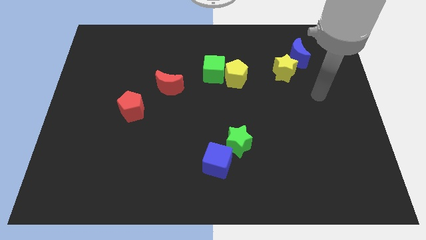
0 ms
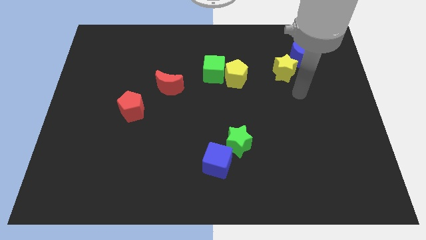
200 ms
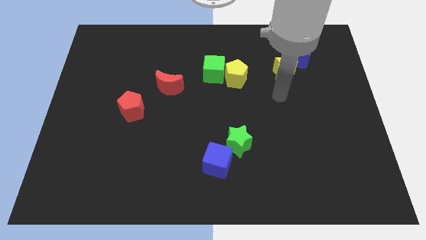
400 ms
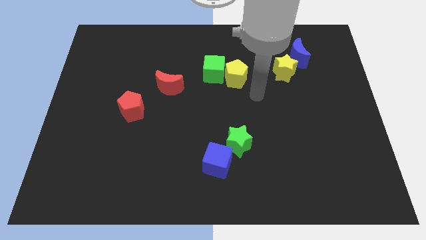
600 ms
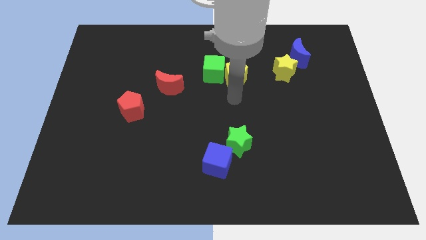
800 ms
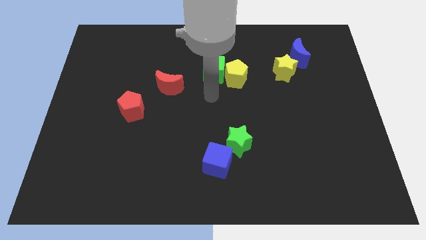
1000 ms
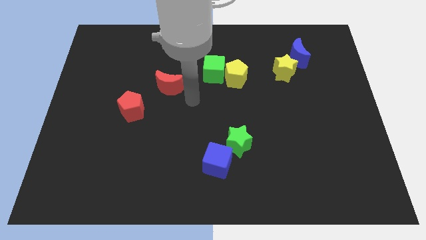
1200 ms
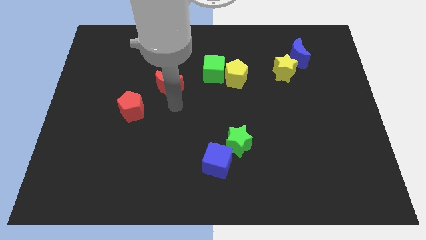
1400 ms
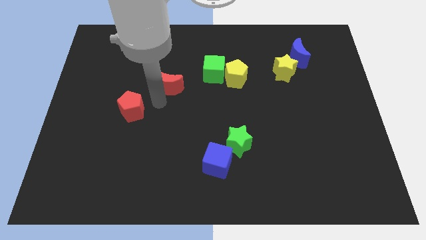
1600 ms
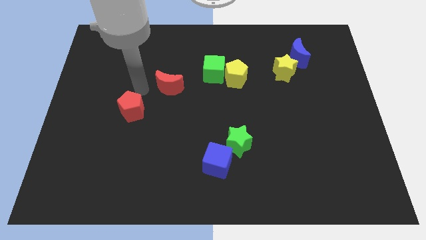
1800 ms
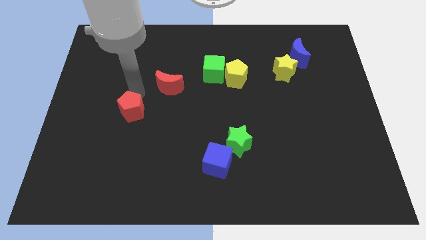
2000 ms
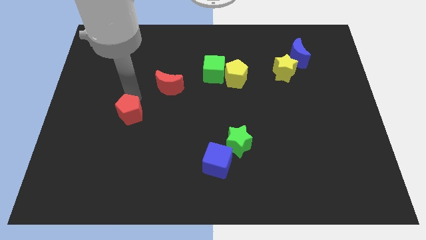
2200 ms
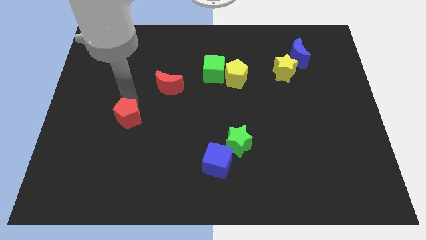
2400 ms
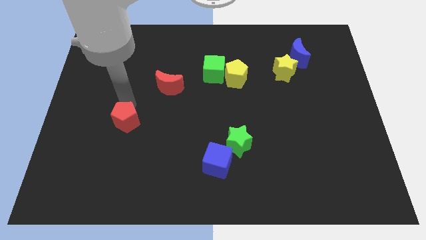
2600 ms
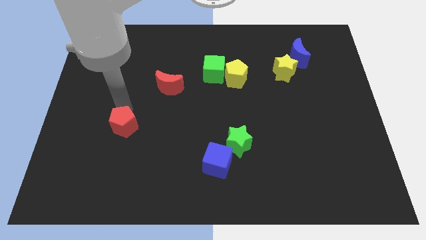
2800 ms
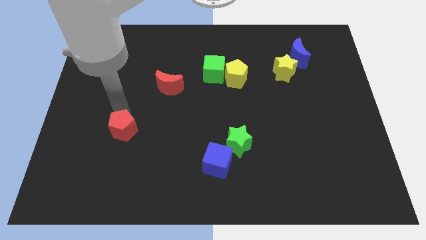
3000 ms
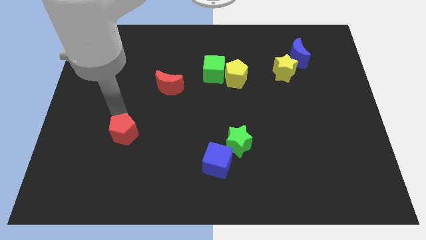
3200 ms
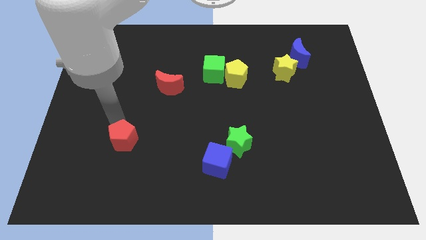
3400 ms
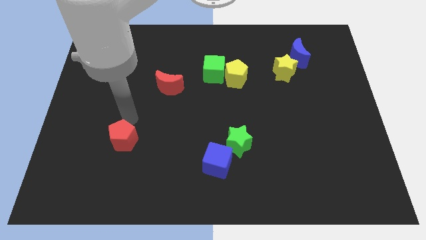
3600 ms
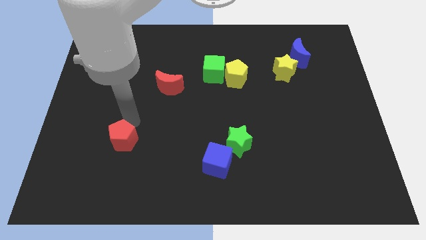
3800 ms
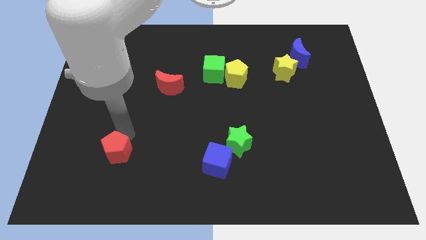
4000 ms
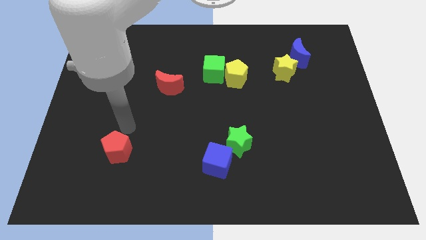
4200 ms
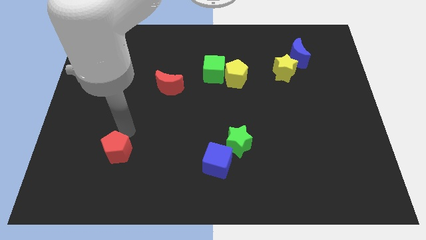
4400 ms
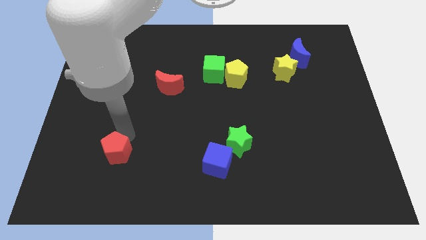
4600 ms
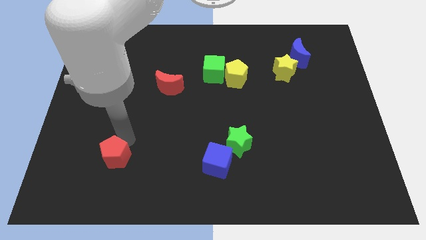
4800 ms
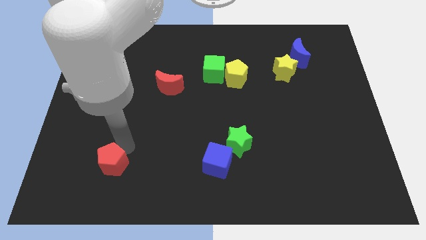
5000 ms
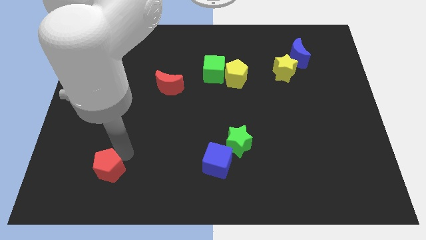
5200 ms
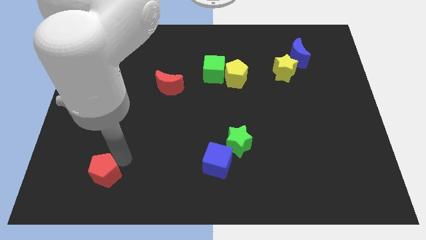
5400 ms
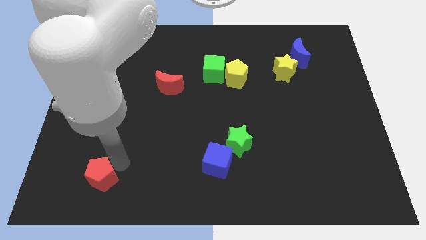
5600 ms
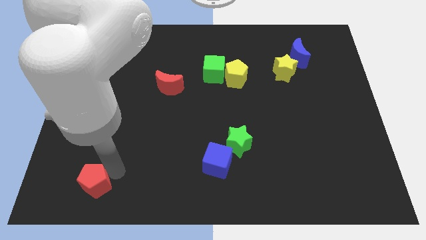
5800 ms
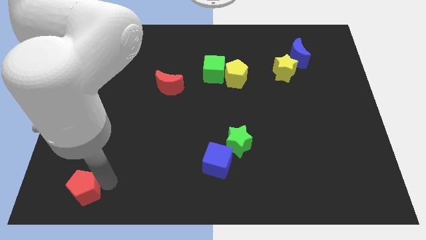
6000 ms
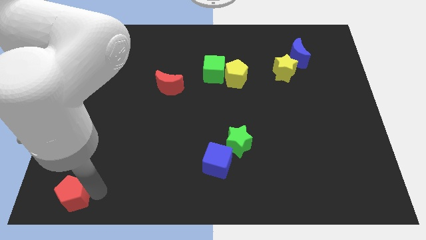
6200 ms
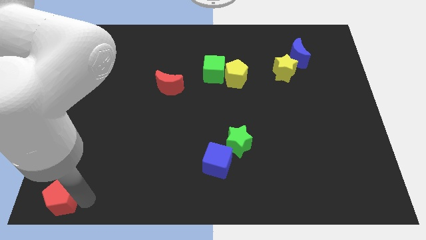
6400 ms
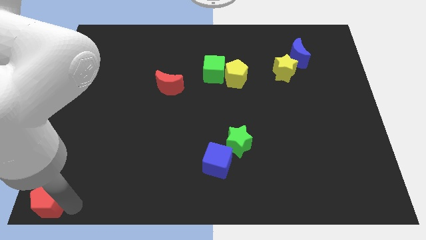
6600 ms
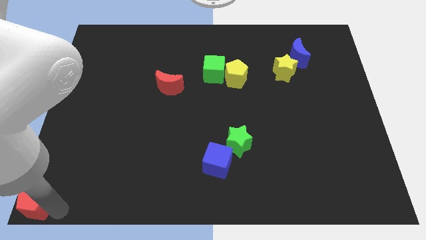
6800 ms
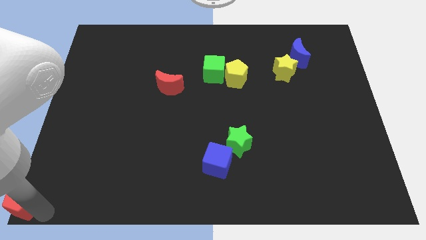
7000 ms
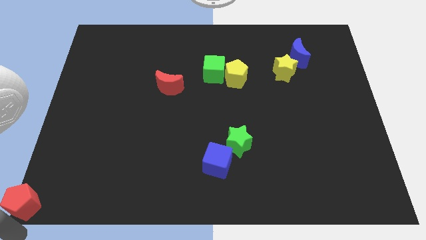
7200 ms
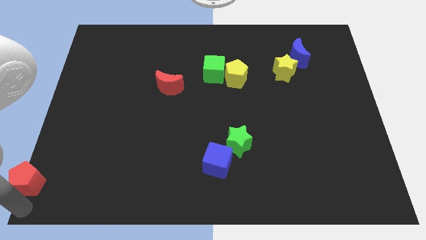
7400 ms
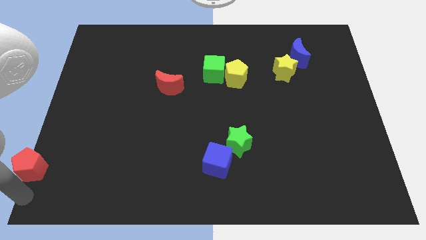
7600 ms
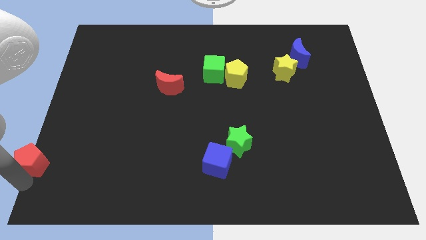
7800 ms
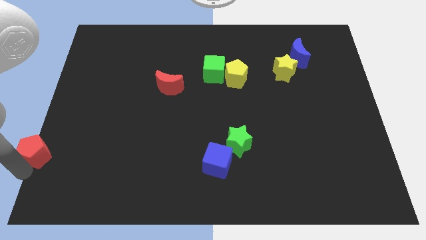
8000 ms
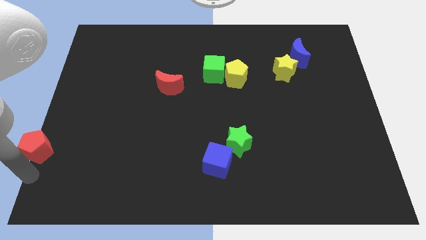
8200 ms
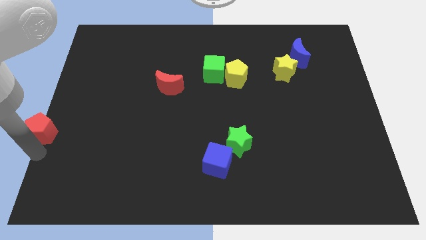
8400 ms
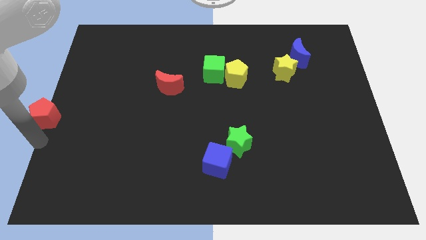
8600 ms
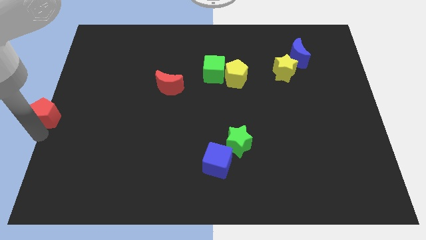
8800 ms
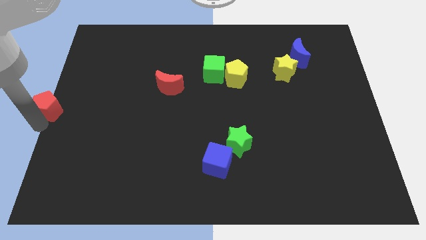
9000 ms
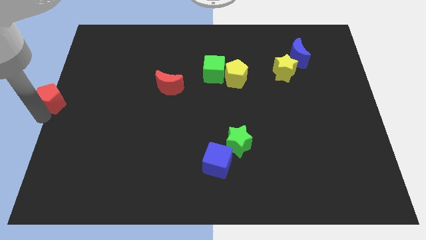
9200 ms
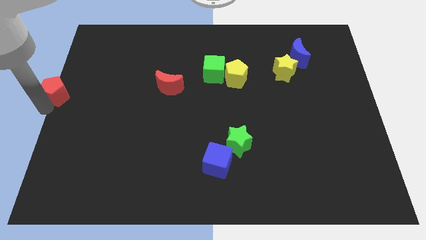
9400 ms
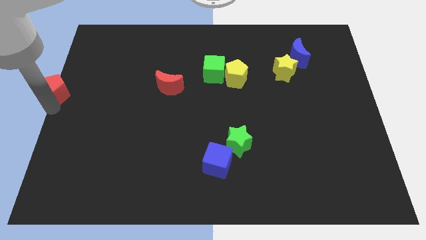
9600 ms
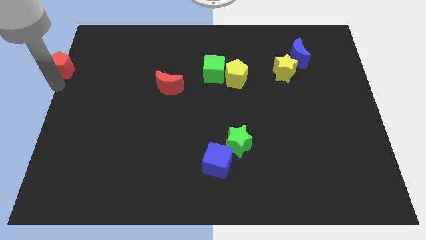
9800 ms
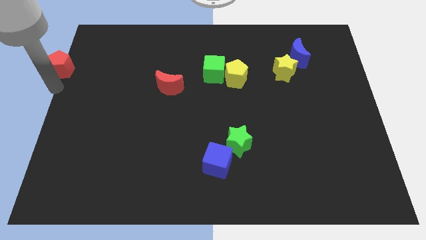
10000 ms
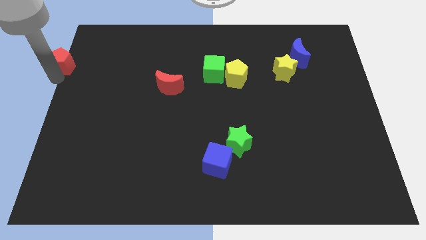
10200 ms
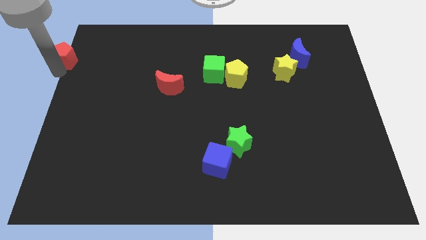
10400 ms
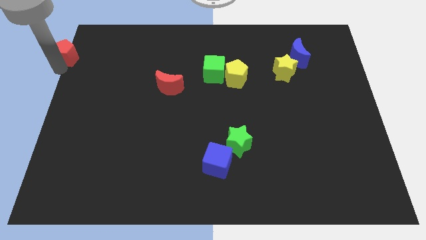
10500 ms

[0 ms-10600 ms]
push the red pentagon to the upper left corner

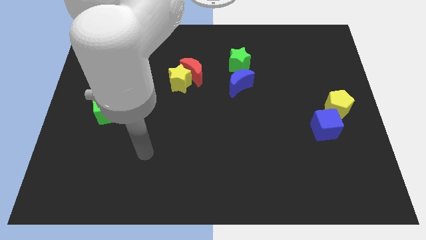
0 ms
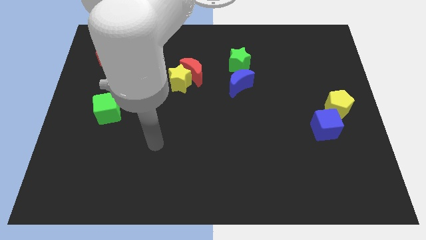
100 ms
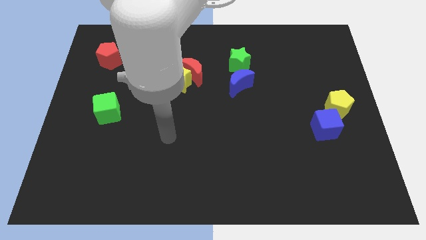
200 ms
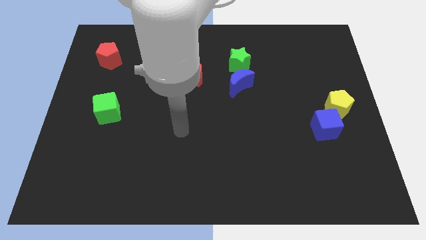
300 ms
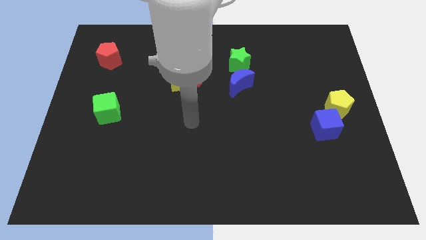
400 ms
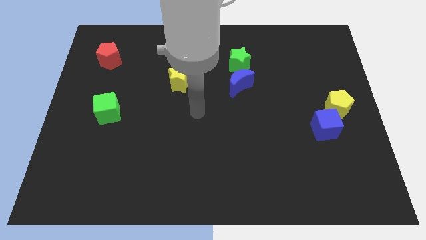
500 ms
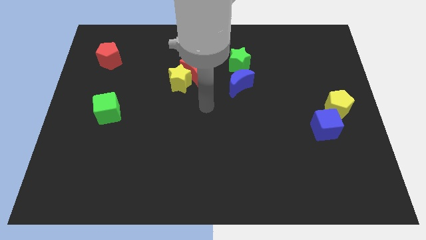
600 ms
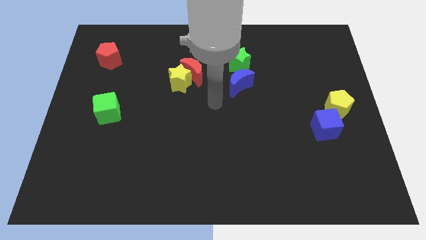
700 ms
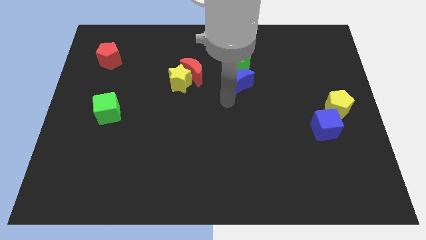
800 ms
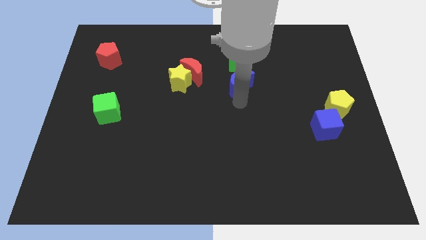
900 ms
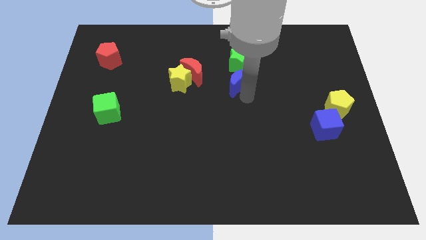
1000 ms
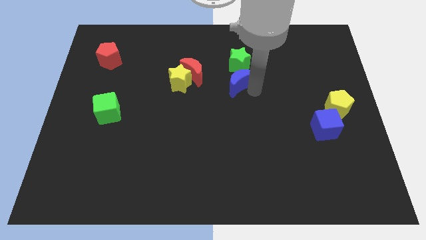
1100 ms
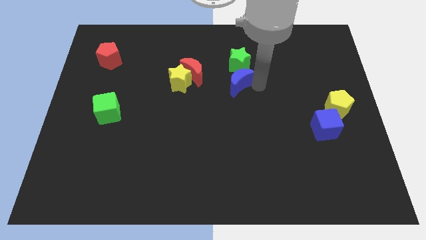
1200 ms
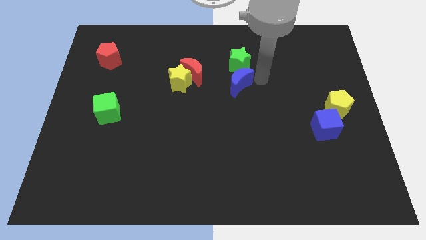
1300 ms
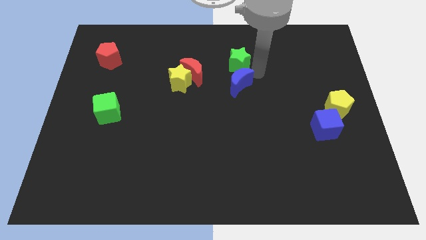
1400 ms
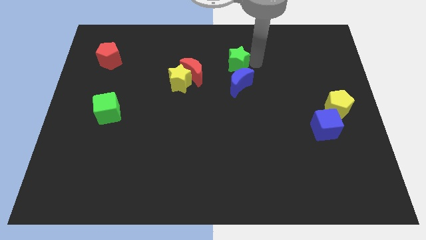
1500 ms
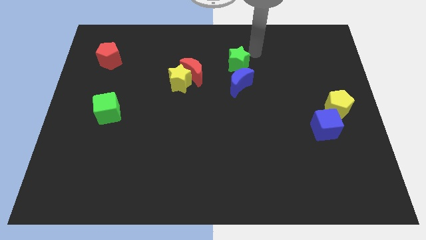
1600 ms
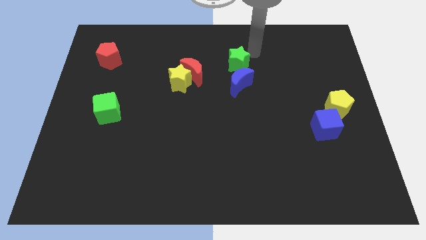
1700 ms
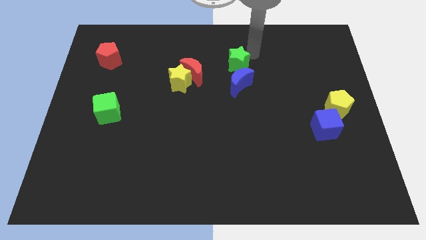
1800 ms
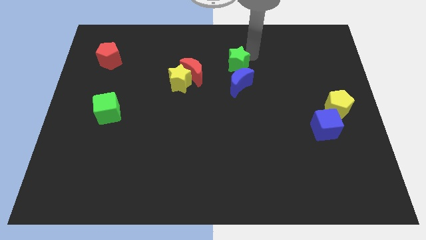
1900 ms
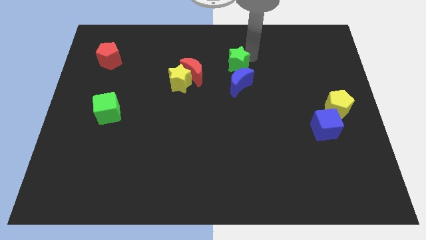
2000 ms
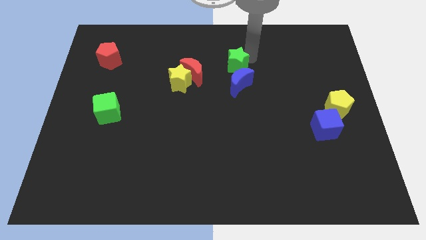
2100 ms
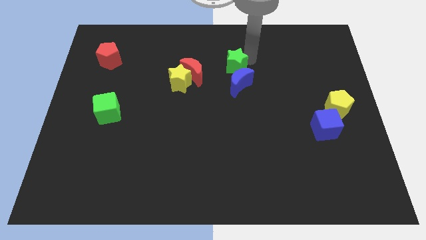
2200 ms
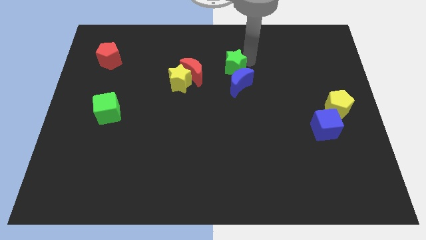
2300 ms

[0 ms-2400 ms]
move the green star to the center
